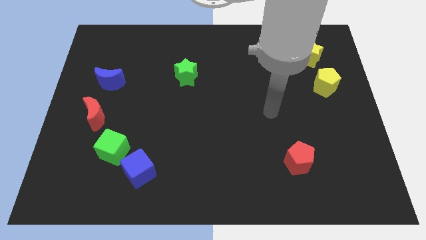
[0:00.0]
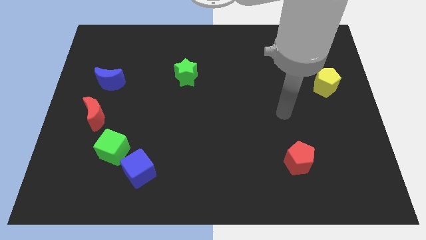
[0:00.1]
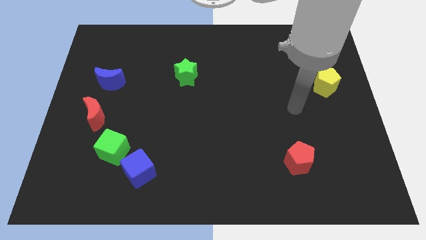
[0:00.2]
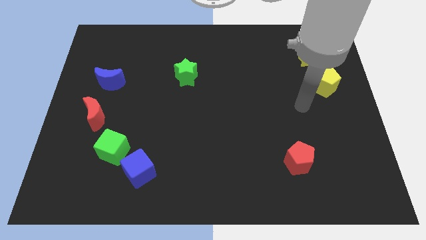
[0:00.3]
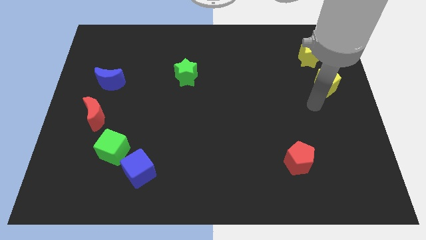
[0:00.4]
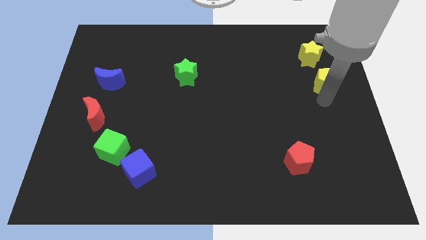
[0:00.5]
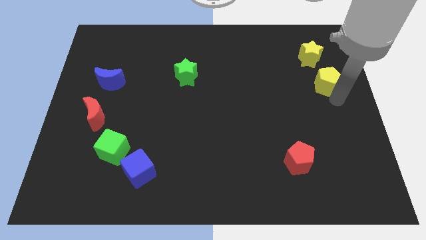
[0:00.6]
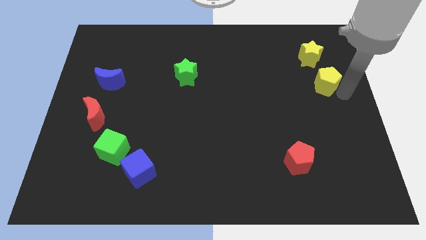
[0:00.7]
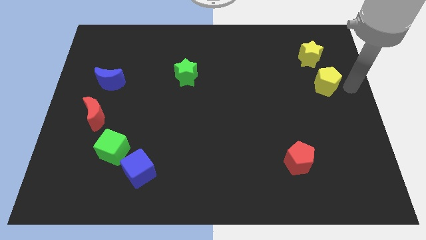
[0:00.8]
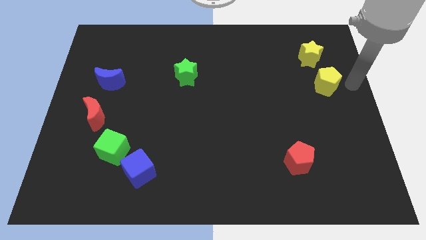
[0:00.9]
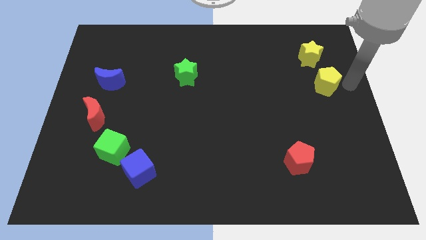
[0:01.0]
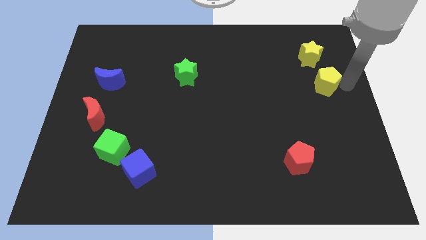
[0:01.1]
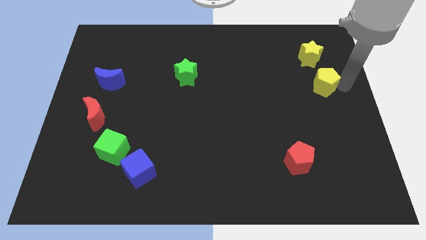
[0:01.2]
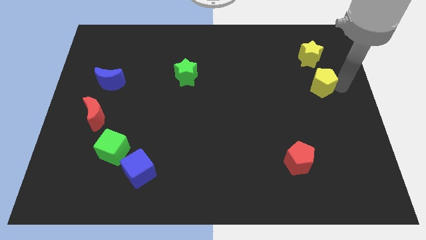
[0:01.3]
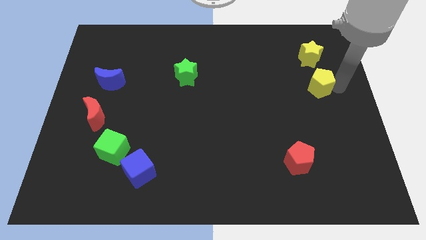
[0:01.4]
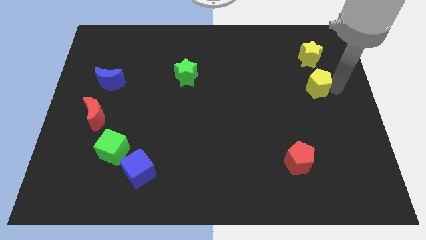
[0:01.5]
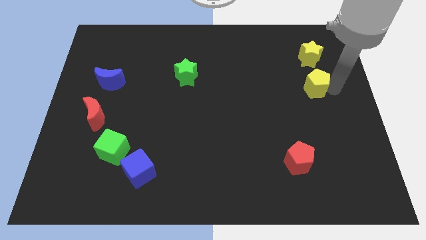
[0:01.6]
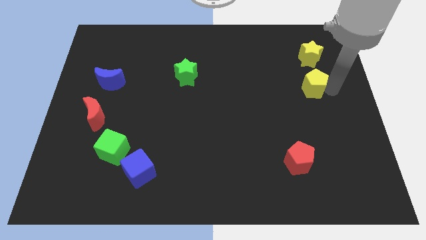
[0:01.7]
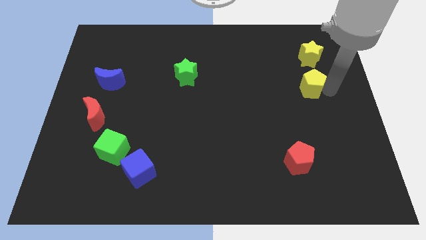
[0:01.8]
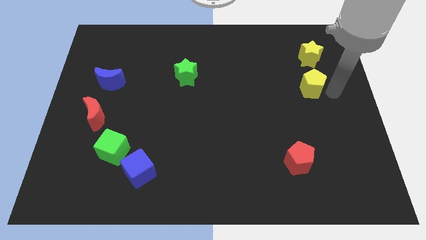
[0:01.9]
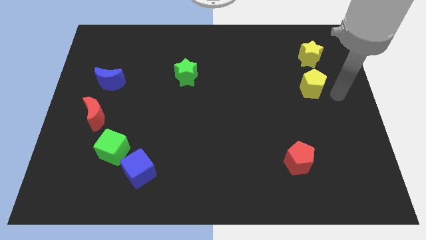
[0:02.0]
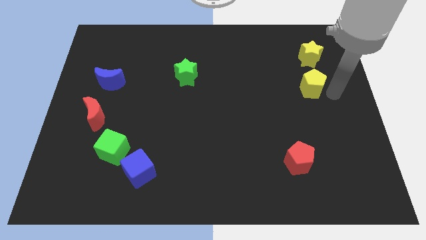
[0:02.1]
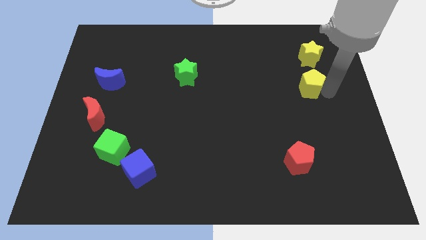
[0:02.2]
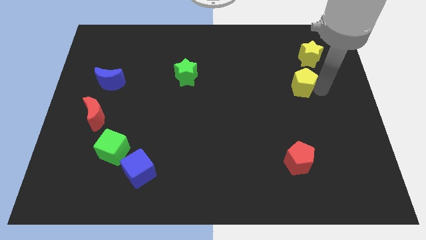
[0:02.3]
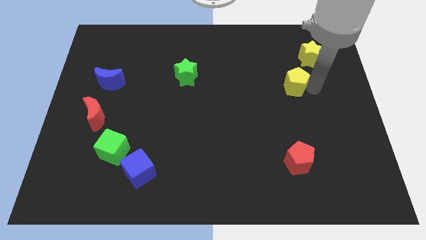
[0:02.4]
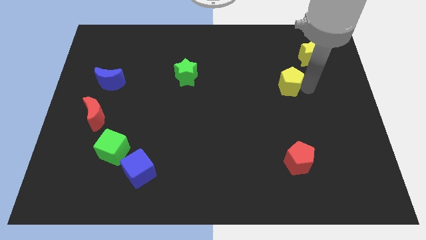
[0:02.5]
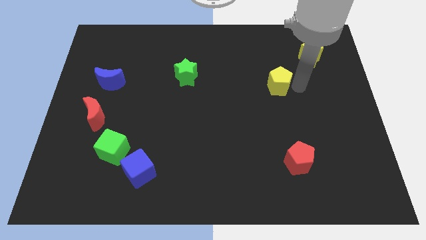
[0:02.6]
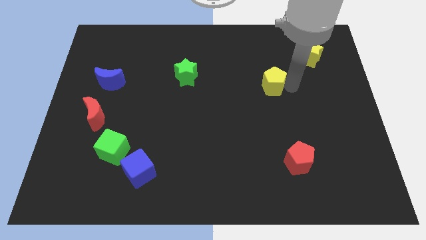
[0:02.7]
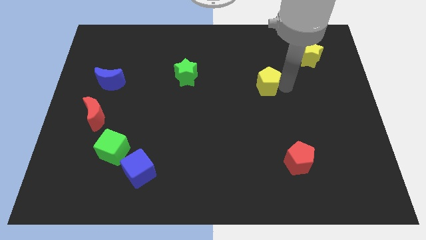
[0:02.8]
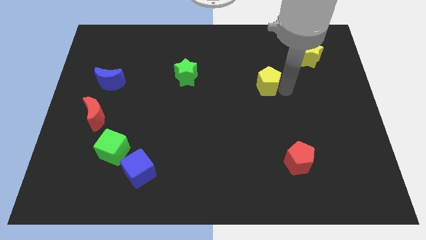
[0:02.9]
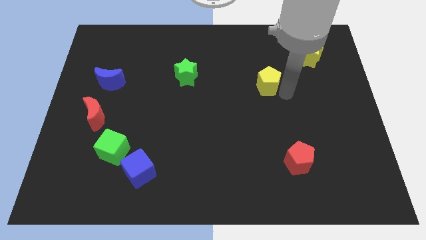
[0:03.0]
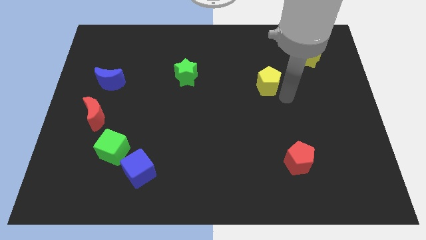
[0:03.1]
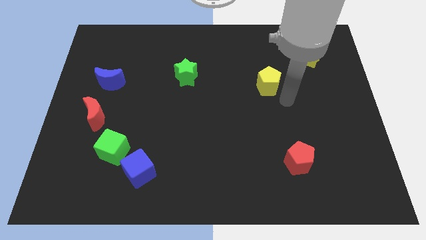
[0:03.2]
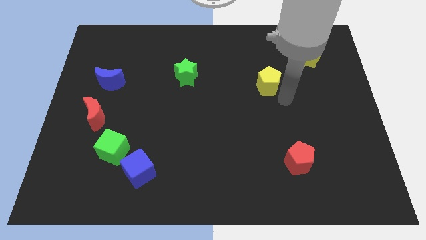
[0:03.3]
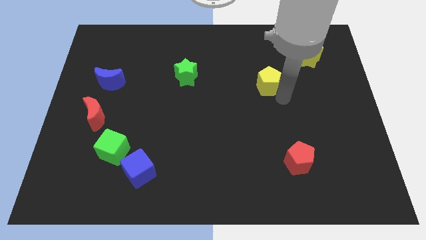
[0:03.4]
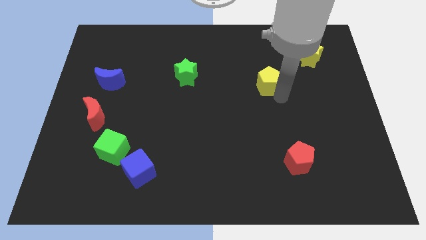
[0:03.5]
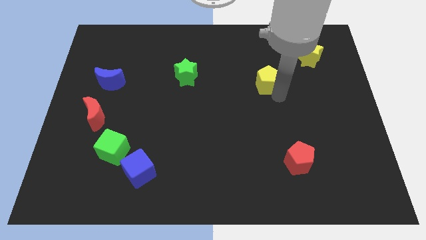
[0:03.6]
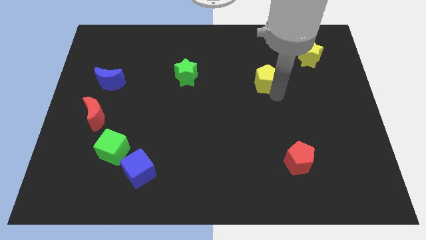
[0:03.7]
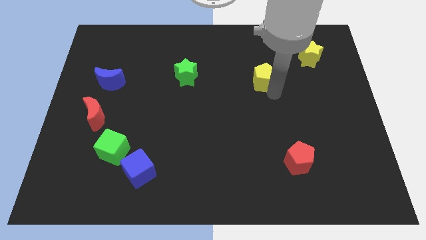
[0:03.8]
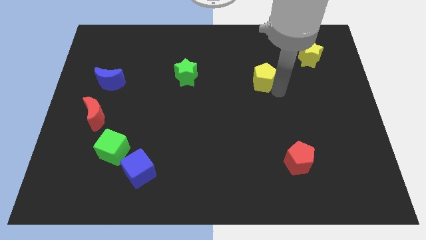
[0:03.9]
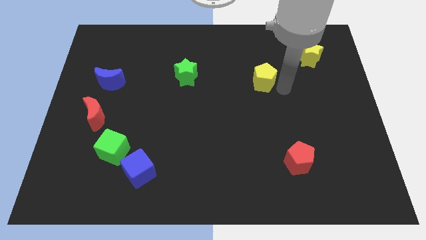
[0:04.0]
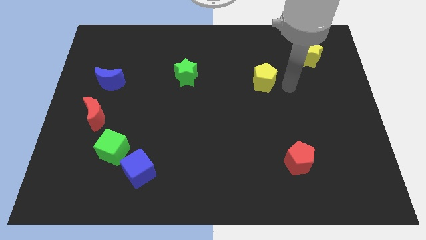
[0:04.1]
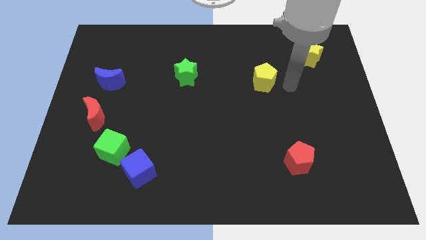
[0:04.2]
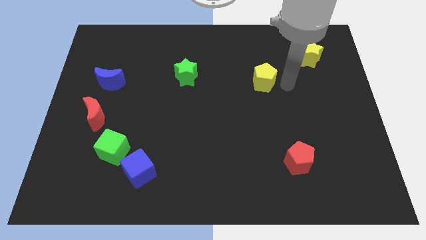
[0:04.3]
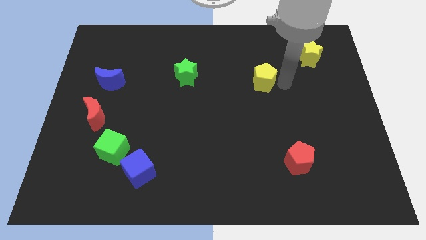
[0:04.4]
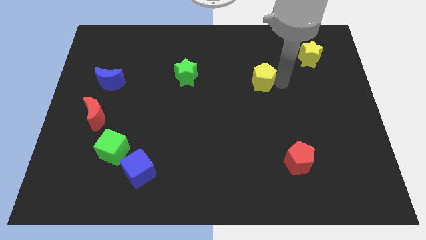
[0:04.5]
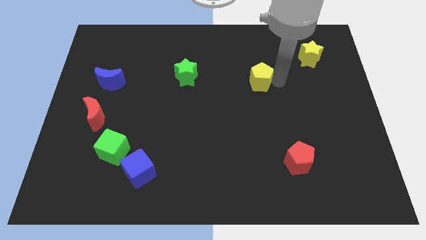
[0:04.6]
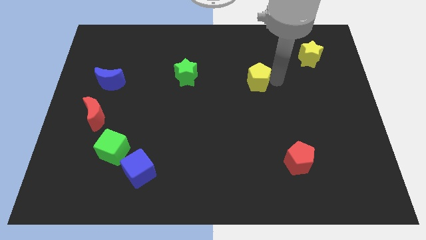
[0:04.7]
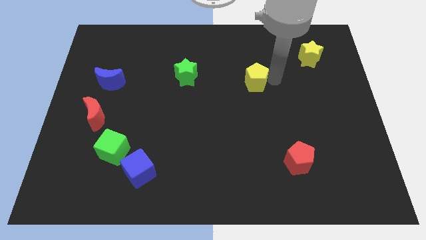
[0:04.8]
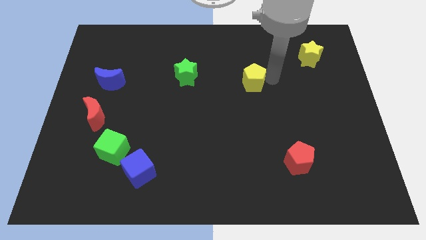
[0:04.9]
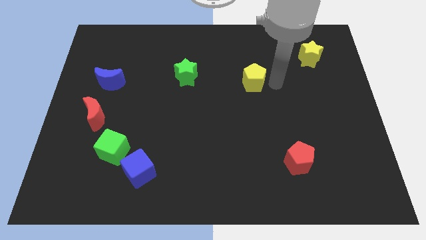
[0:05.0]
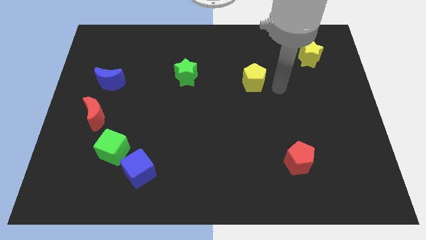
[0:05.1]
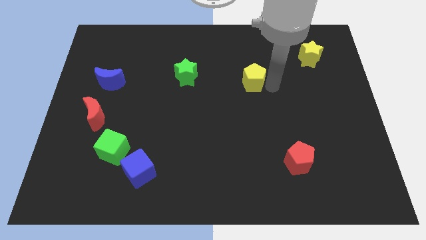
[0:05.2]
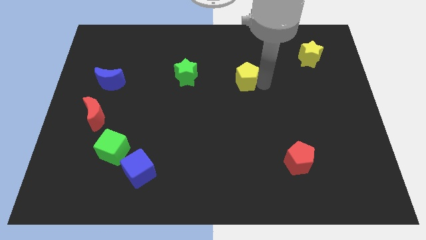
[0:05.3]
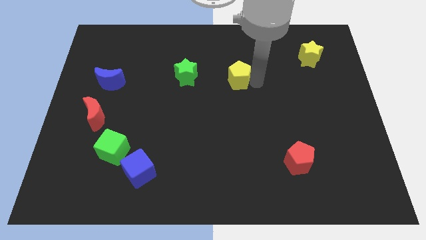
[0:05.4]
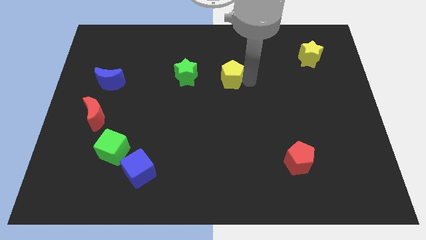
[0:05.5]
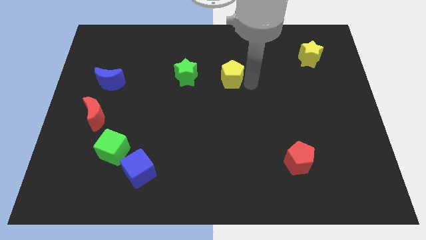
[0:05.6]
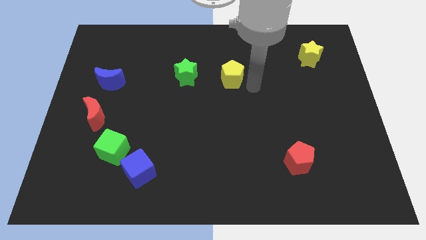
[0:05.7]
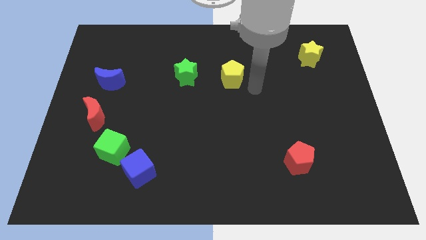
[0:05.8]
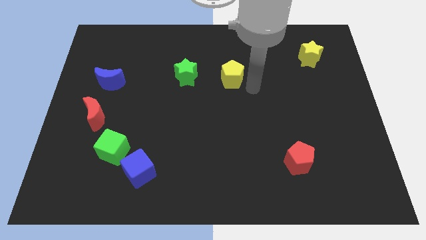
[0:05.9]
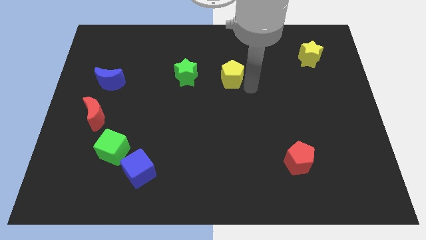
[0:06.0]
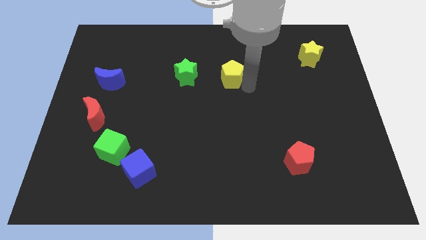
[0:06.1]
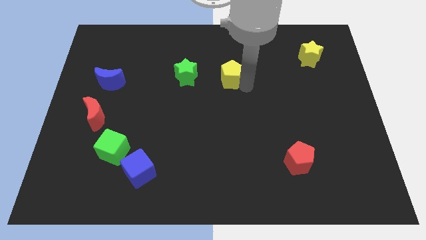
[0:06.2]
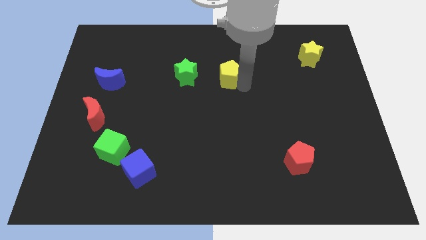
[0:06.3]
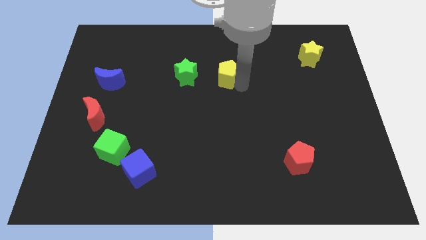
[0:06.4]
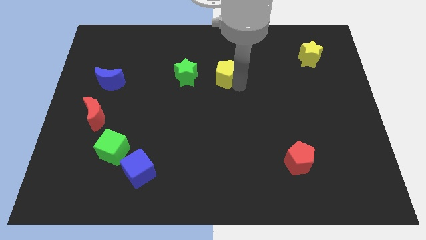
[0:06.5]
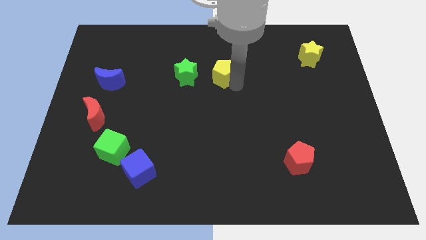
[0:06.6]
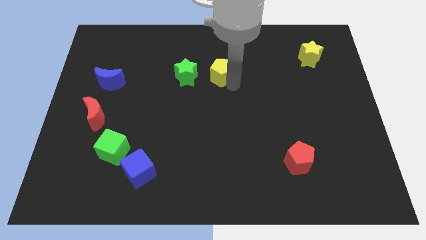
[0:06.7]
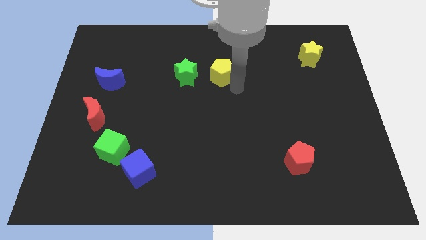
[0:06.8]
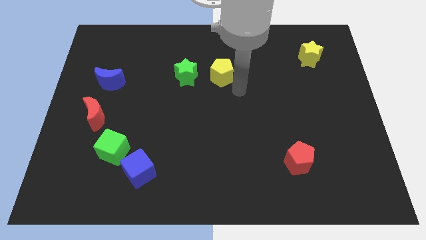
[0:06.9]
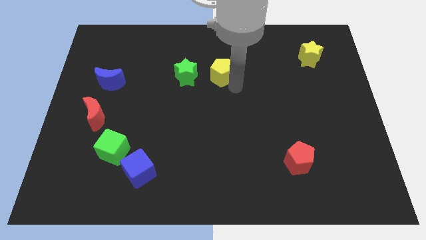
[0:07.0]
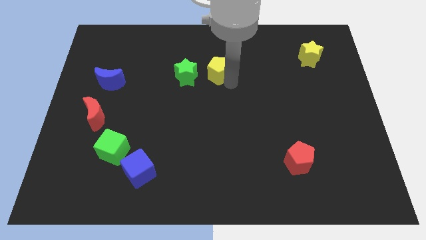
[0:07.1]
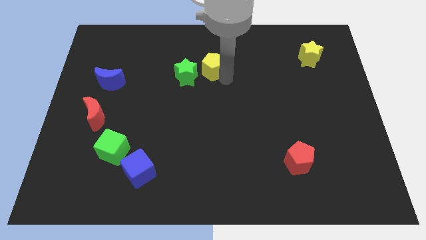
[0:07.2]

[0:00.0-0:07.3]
slide the yellow pentagon diagonally up and to the right of the green star
